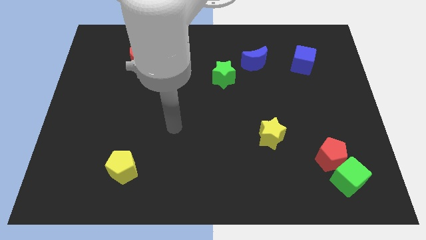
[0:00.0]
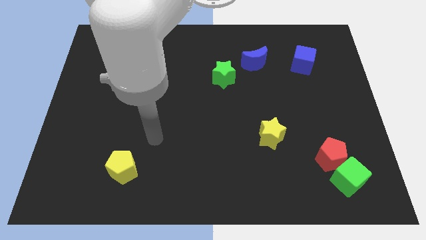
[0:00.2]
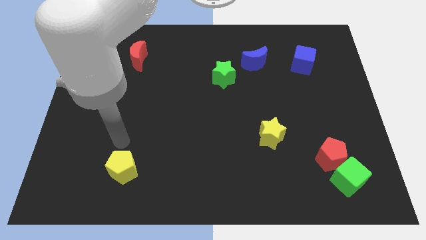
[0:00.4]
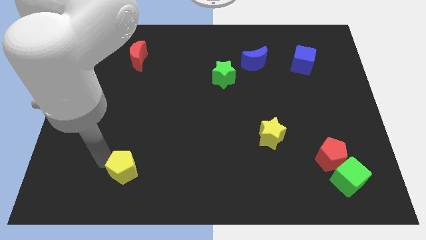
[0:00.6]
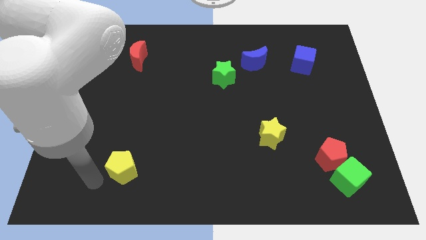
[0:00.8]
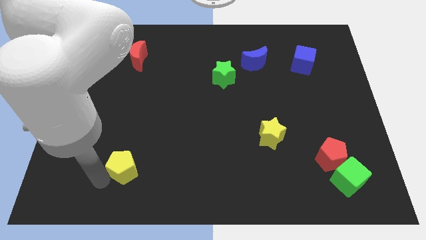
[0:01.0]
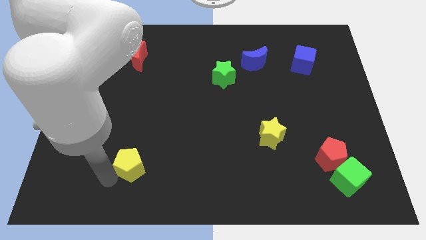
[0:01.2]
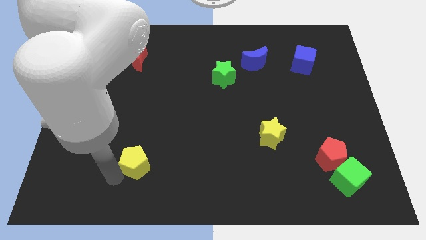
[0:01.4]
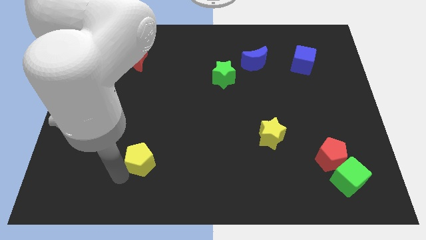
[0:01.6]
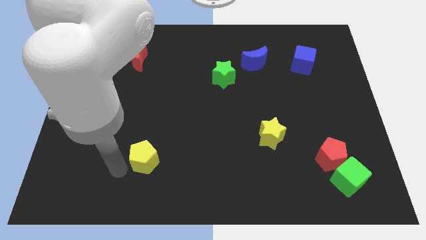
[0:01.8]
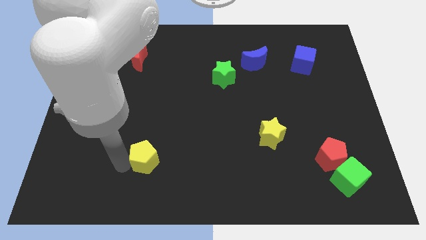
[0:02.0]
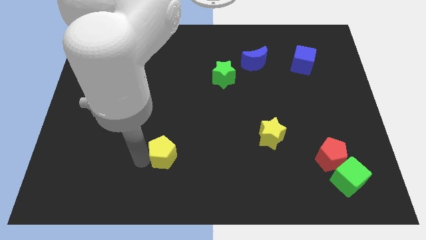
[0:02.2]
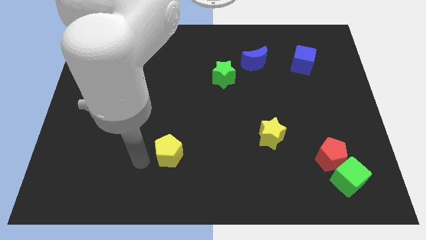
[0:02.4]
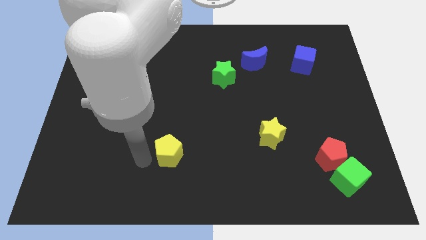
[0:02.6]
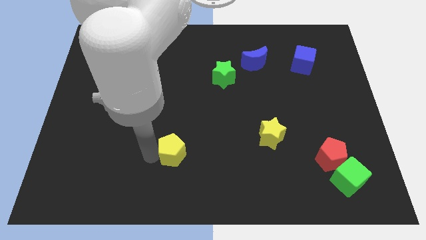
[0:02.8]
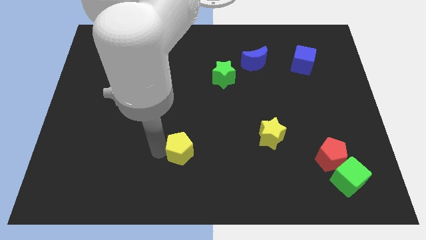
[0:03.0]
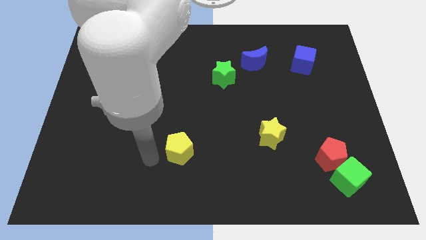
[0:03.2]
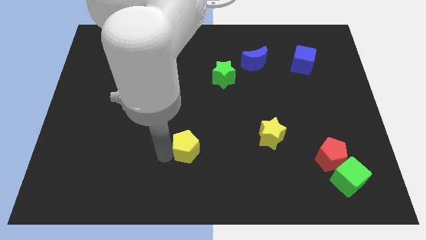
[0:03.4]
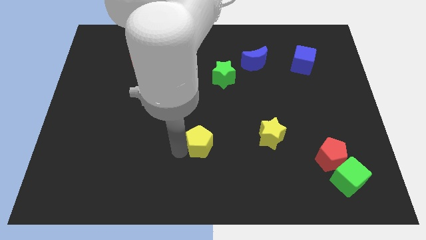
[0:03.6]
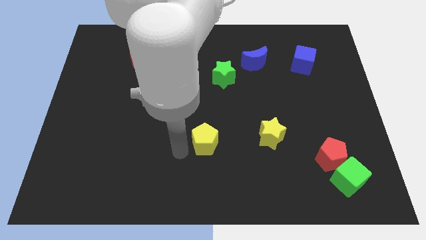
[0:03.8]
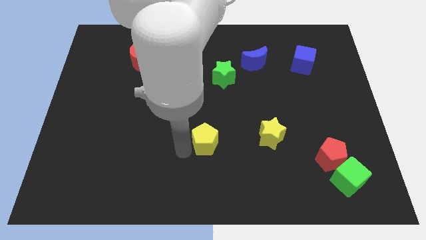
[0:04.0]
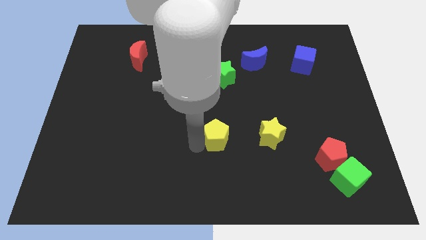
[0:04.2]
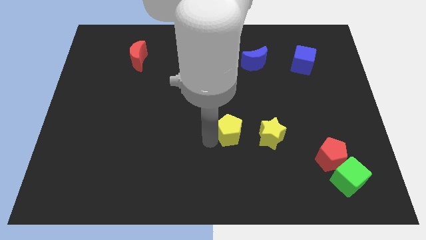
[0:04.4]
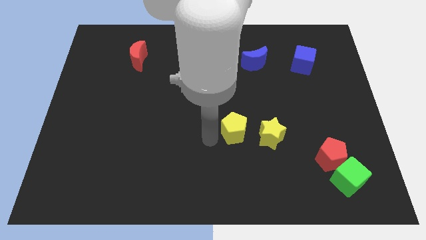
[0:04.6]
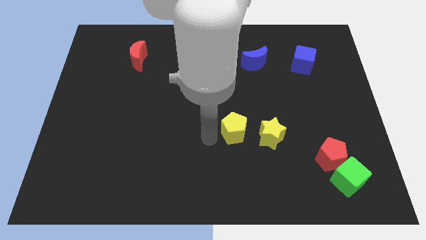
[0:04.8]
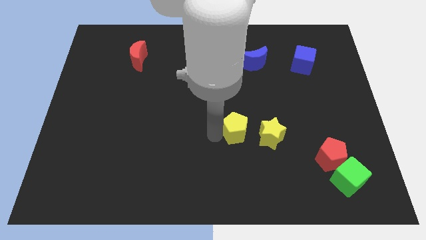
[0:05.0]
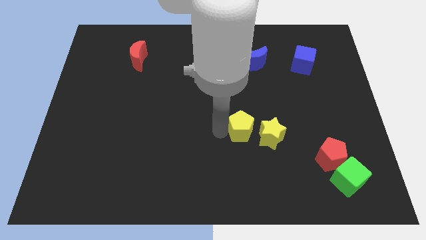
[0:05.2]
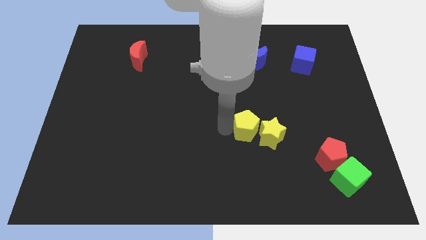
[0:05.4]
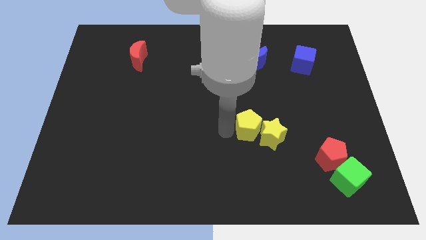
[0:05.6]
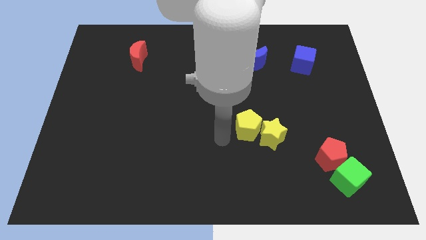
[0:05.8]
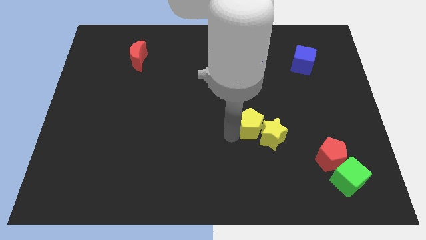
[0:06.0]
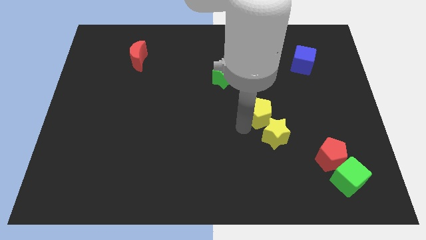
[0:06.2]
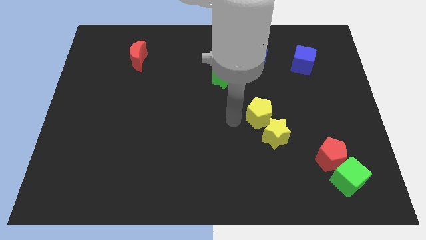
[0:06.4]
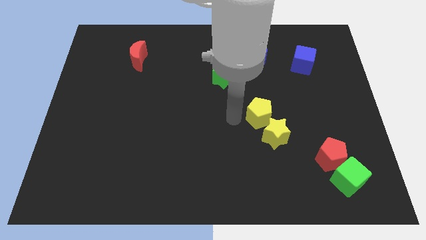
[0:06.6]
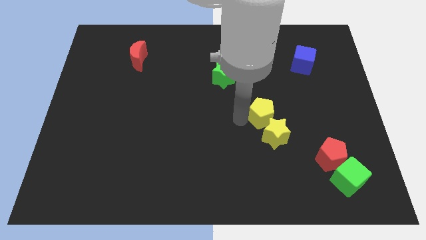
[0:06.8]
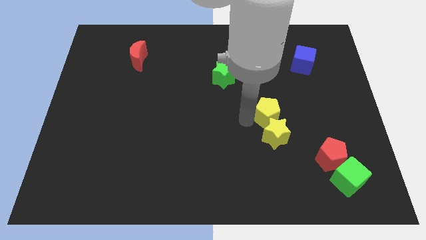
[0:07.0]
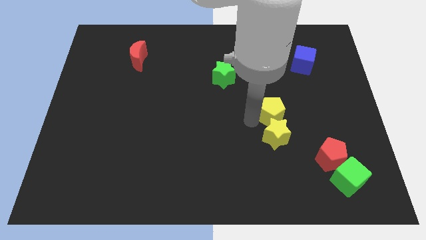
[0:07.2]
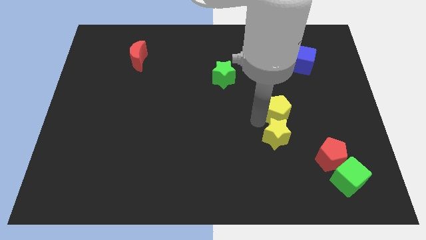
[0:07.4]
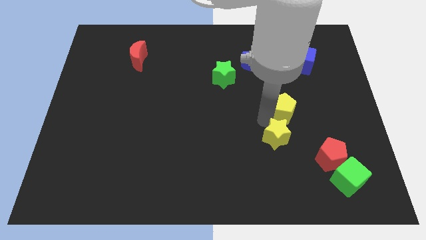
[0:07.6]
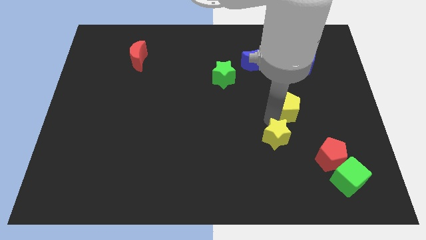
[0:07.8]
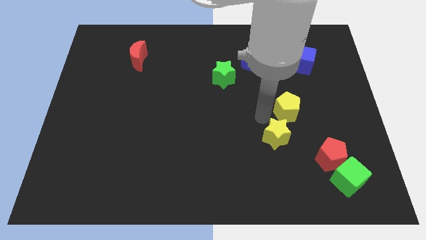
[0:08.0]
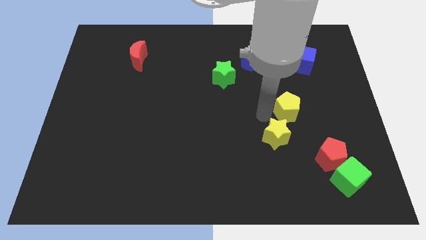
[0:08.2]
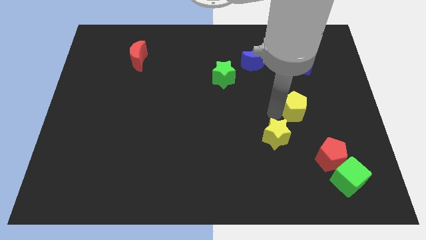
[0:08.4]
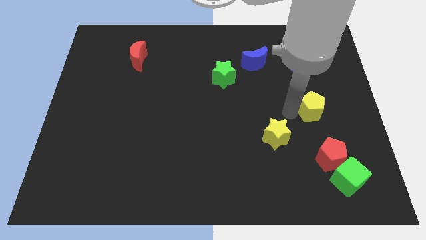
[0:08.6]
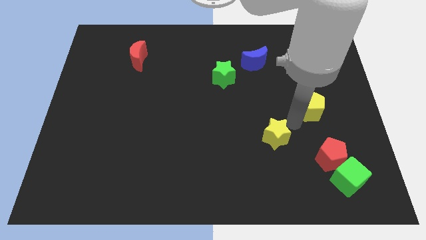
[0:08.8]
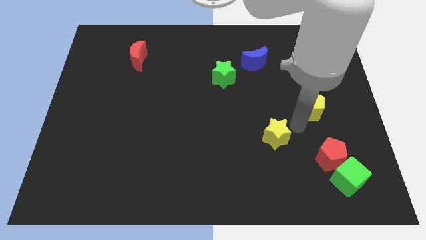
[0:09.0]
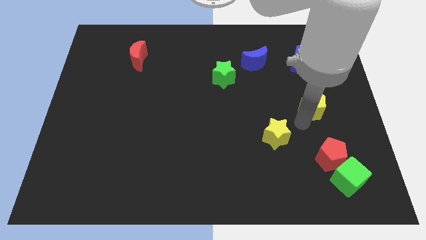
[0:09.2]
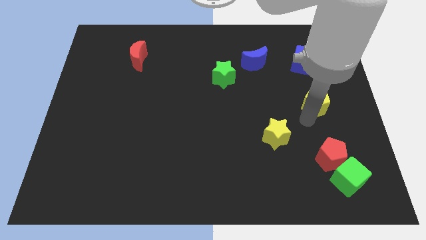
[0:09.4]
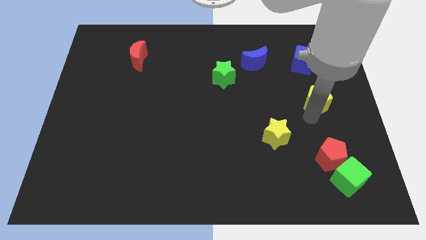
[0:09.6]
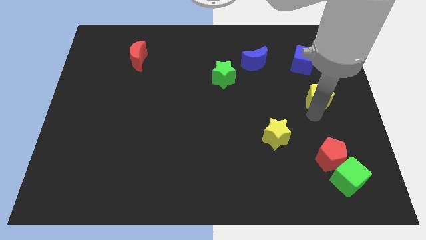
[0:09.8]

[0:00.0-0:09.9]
slide the yellow pentagon to the right side

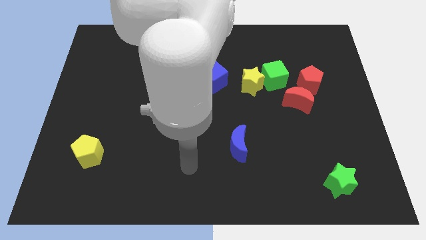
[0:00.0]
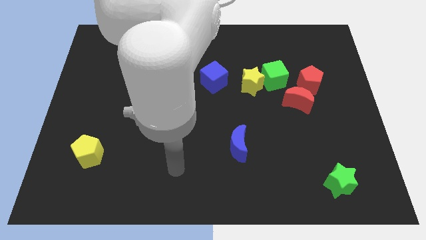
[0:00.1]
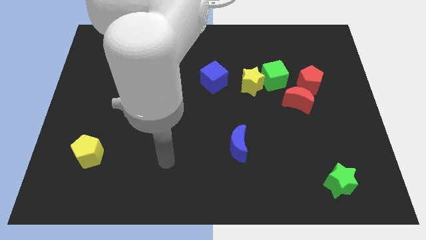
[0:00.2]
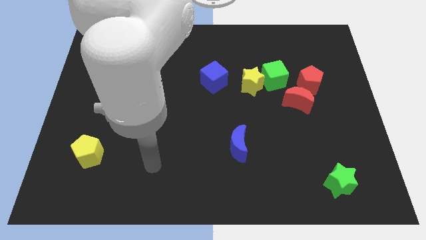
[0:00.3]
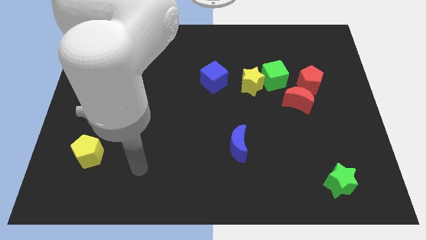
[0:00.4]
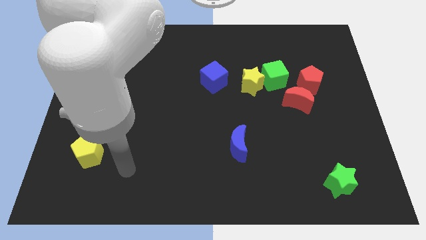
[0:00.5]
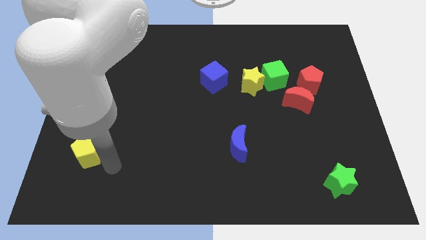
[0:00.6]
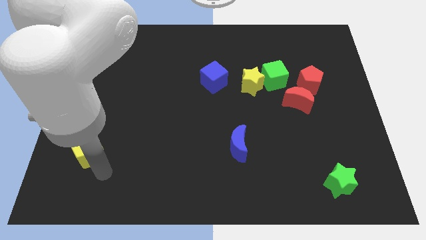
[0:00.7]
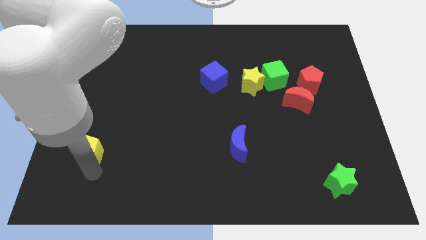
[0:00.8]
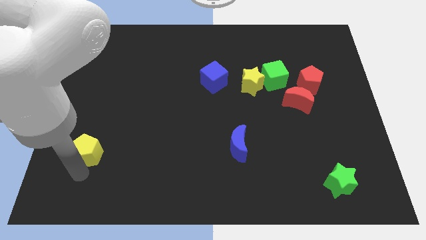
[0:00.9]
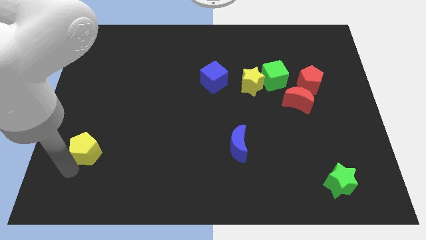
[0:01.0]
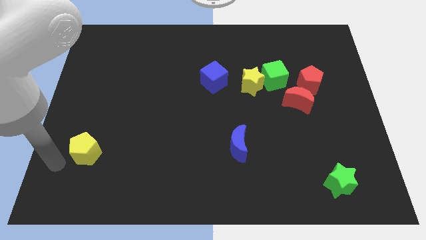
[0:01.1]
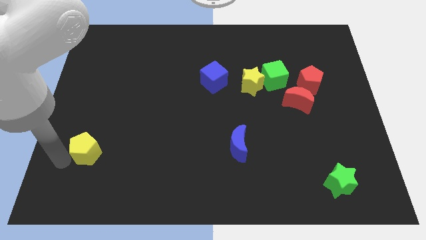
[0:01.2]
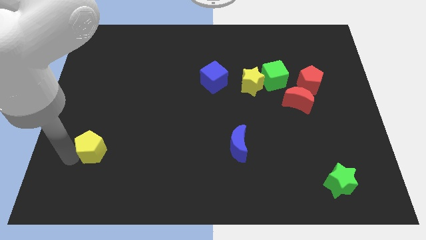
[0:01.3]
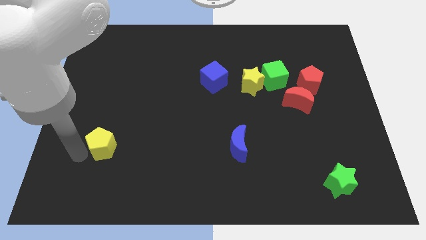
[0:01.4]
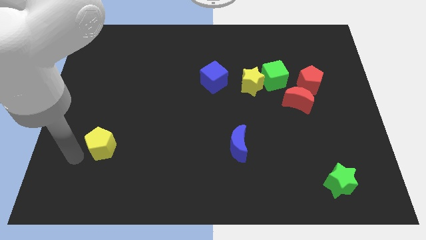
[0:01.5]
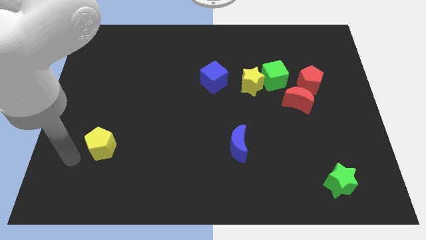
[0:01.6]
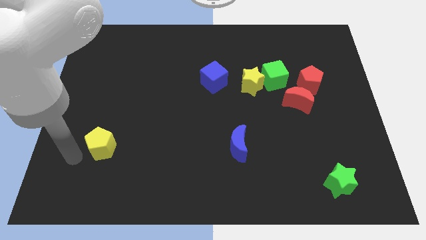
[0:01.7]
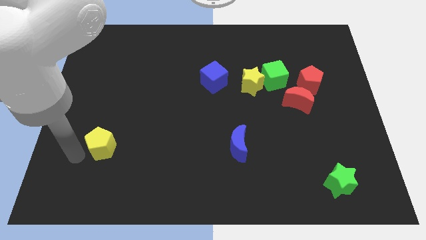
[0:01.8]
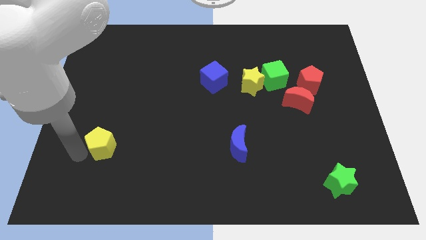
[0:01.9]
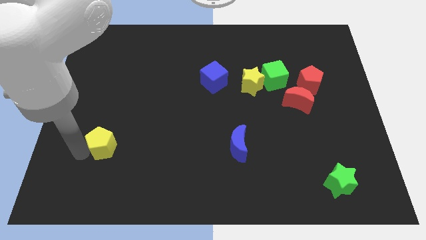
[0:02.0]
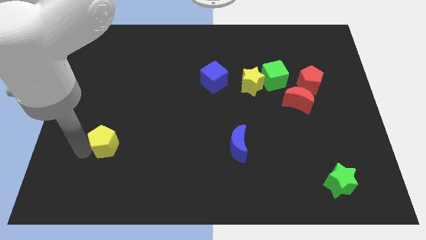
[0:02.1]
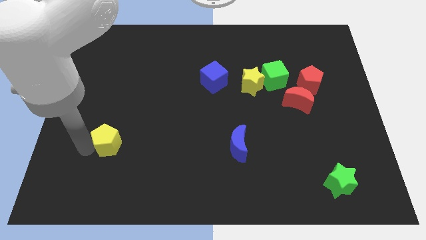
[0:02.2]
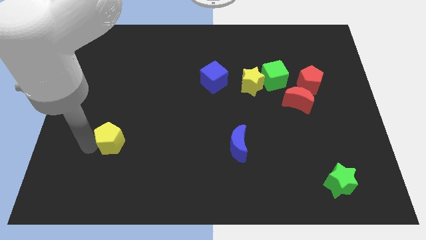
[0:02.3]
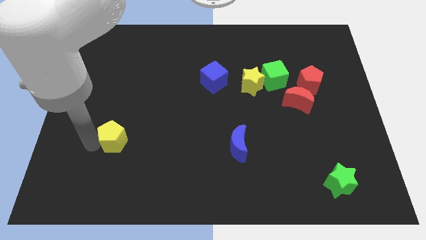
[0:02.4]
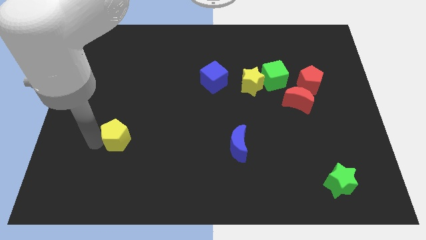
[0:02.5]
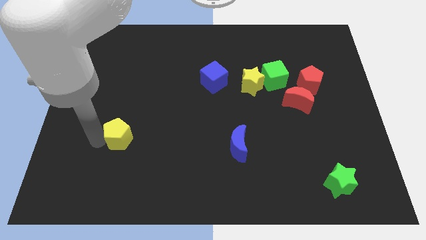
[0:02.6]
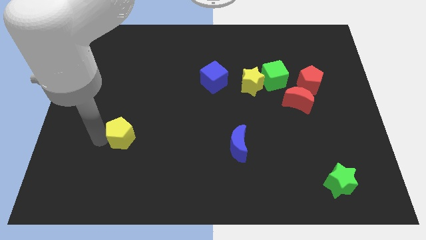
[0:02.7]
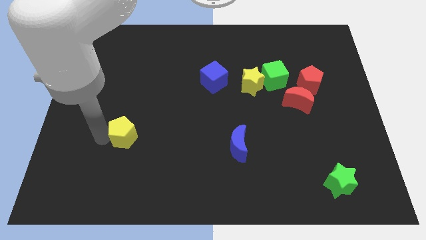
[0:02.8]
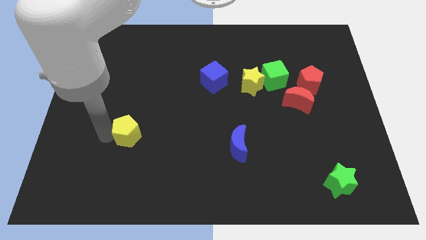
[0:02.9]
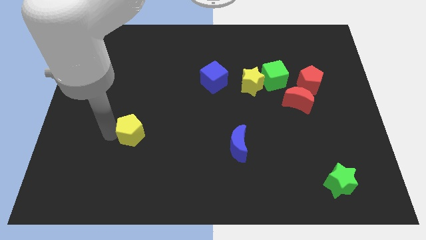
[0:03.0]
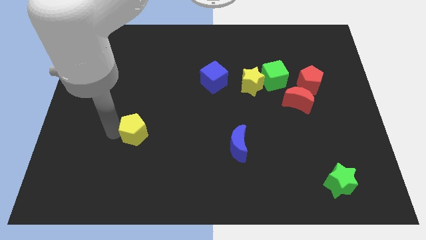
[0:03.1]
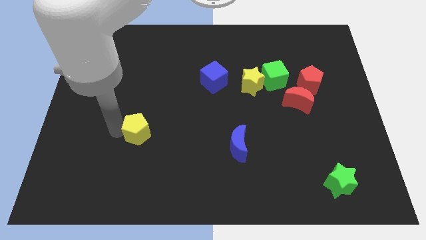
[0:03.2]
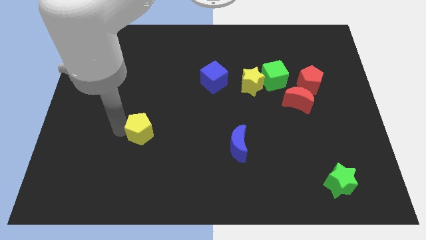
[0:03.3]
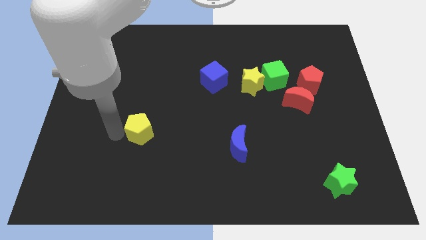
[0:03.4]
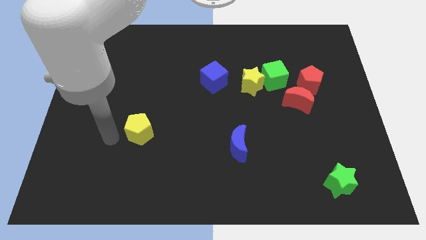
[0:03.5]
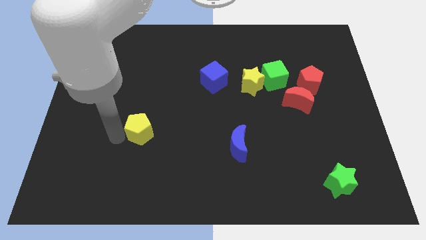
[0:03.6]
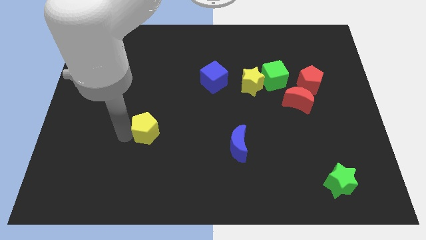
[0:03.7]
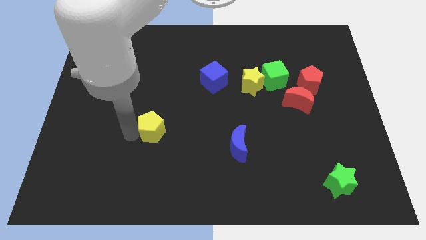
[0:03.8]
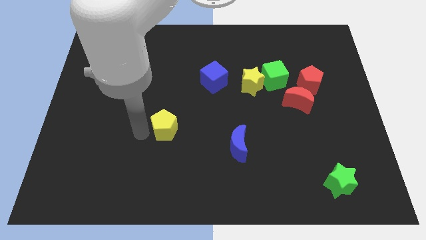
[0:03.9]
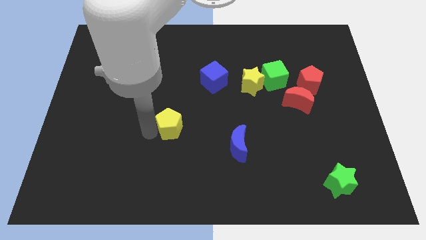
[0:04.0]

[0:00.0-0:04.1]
slide the yellow pentagon to the center of the board
